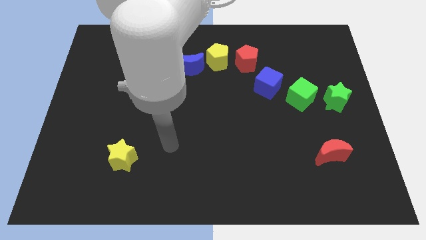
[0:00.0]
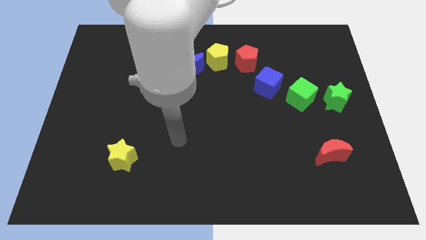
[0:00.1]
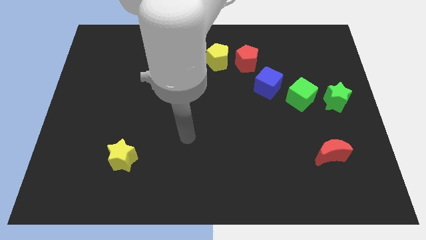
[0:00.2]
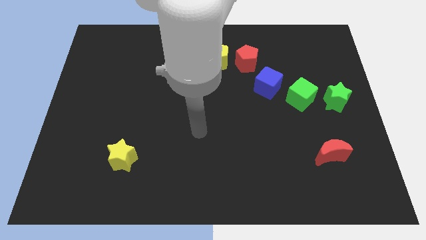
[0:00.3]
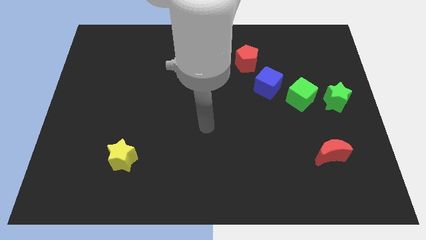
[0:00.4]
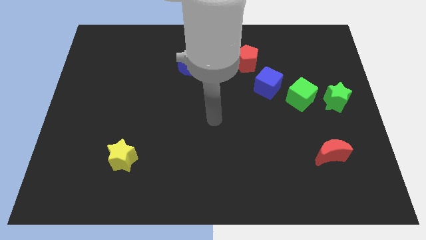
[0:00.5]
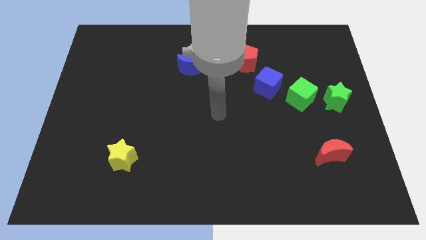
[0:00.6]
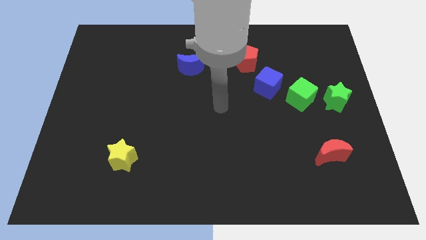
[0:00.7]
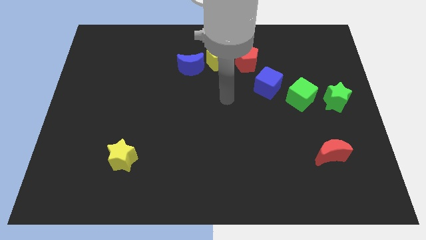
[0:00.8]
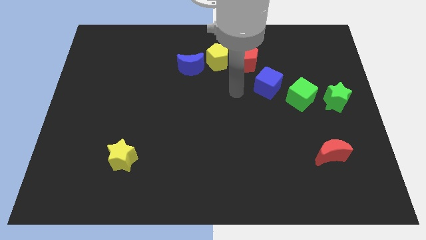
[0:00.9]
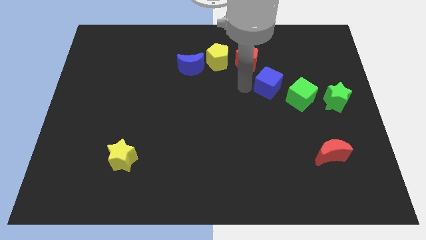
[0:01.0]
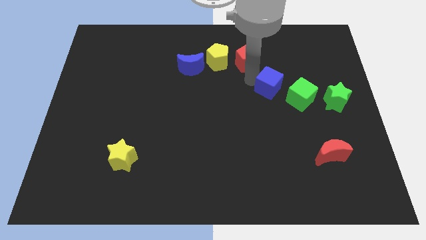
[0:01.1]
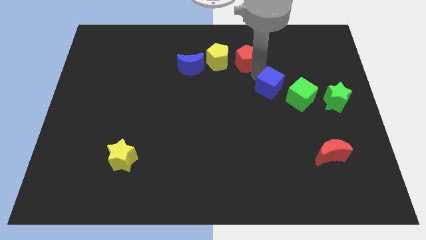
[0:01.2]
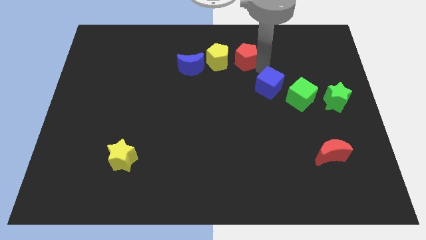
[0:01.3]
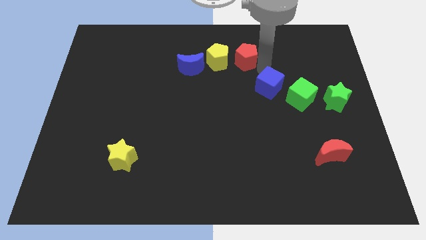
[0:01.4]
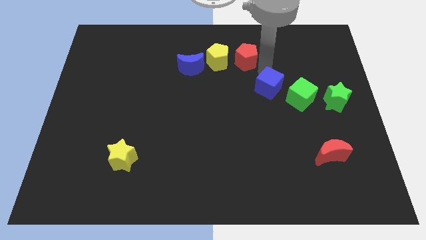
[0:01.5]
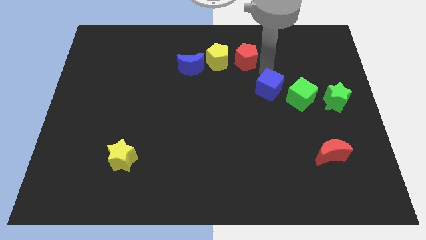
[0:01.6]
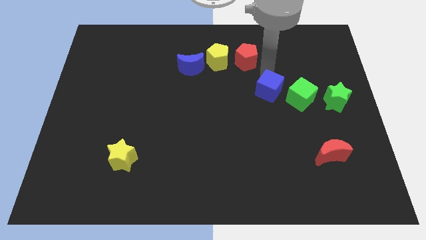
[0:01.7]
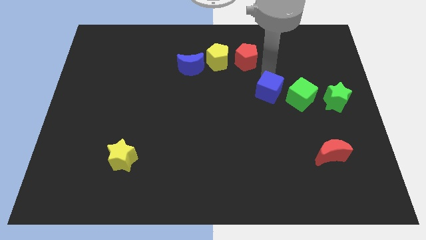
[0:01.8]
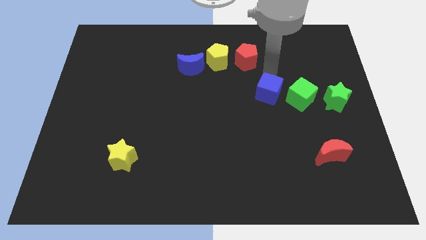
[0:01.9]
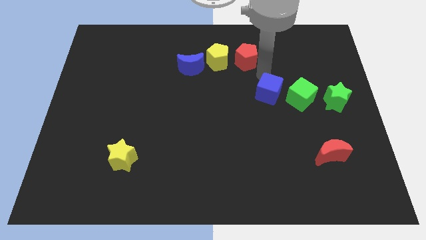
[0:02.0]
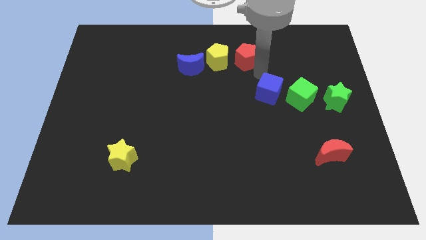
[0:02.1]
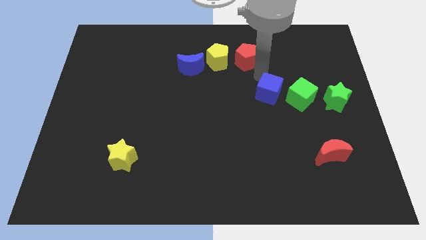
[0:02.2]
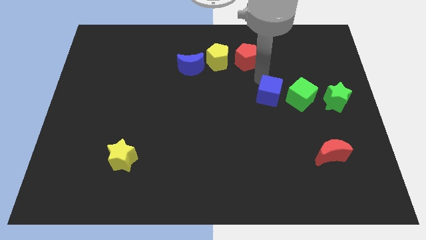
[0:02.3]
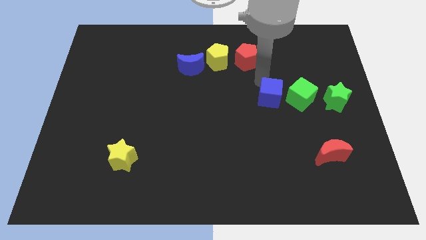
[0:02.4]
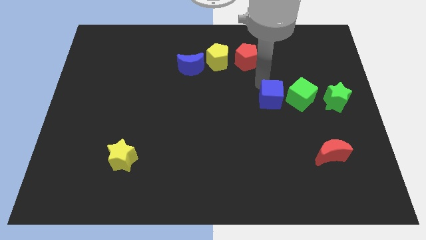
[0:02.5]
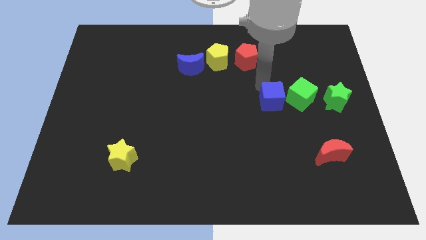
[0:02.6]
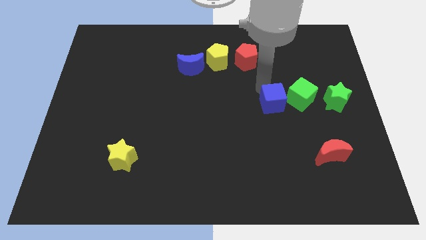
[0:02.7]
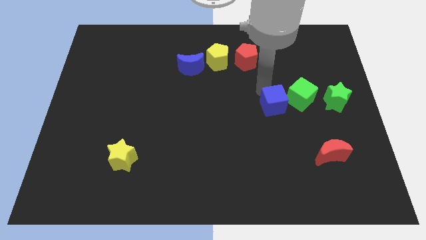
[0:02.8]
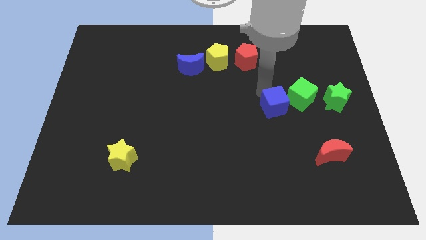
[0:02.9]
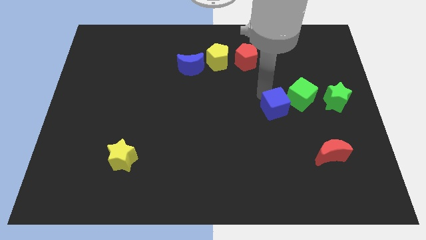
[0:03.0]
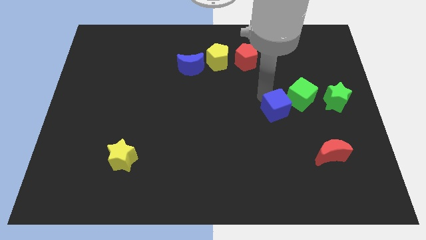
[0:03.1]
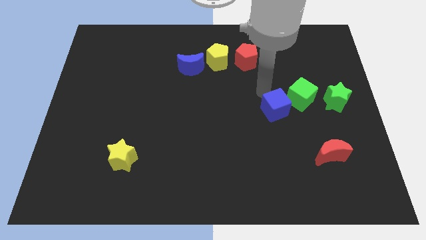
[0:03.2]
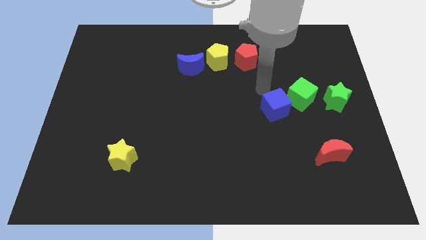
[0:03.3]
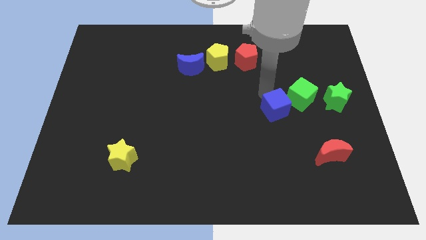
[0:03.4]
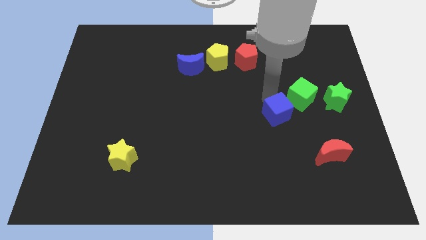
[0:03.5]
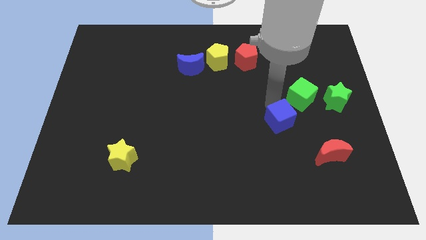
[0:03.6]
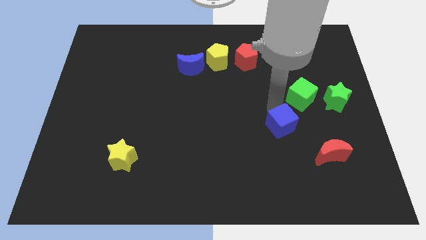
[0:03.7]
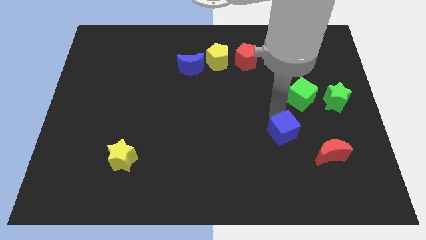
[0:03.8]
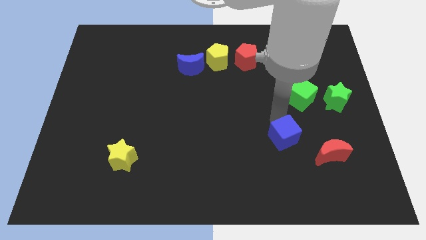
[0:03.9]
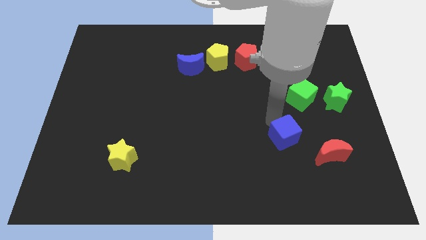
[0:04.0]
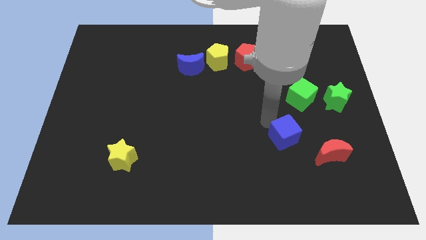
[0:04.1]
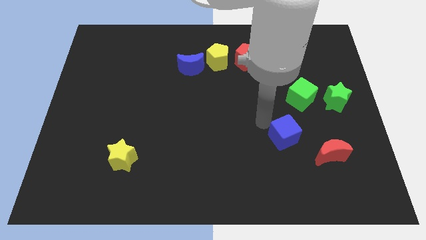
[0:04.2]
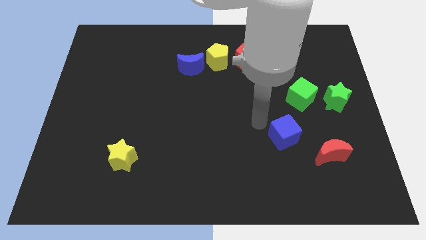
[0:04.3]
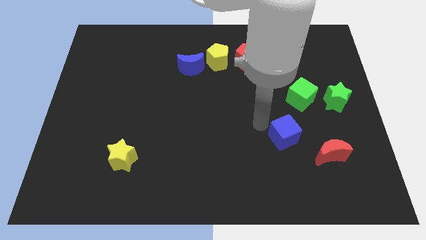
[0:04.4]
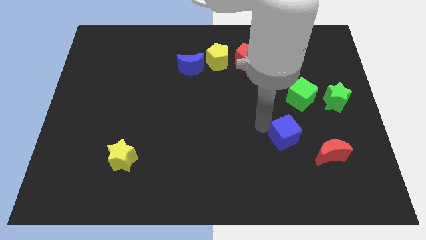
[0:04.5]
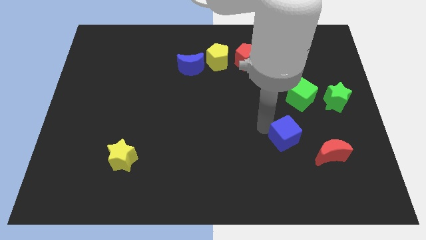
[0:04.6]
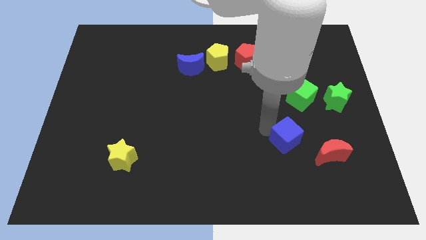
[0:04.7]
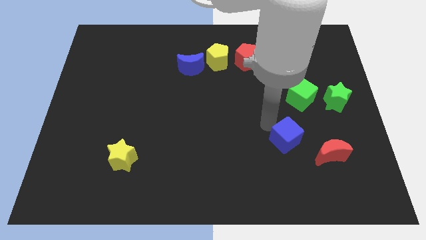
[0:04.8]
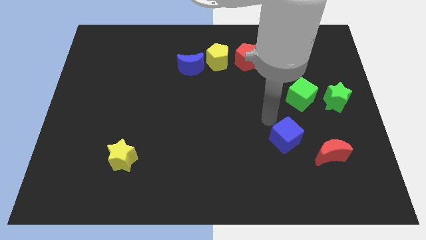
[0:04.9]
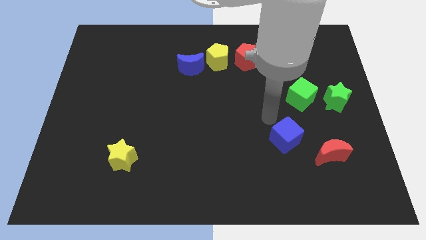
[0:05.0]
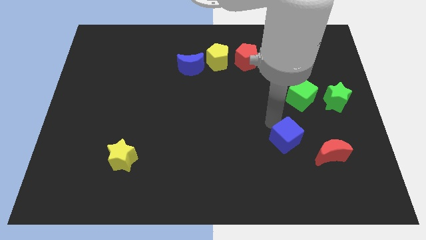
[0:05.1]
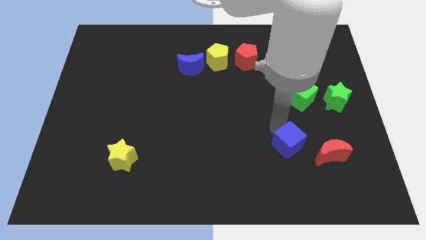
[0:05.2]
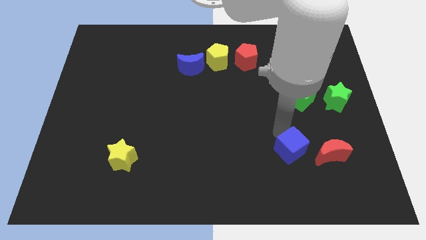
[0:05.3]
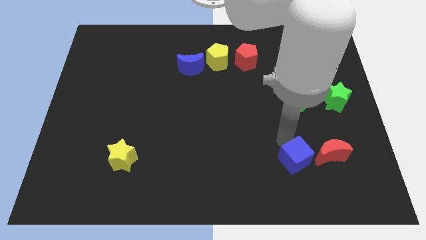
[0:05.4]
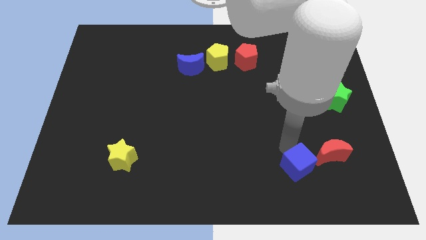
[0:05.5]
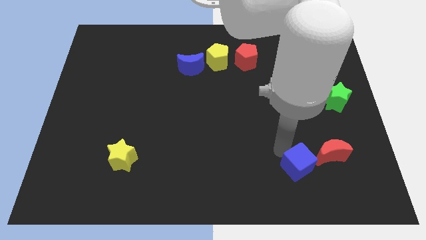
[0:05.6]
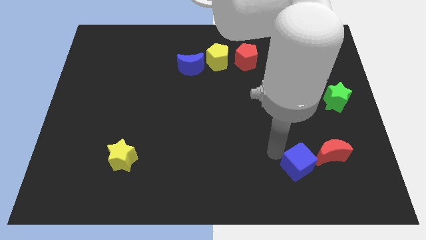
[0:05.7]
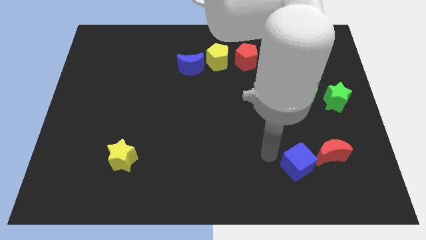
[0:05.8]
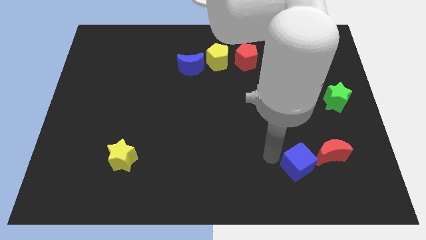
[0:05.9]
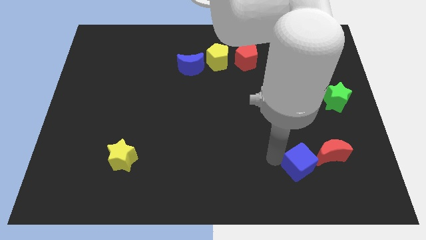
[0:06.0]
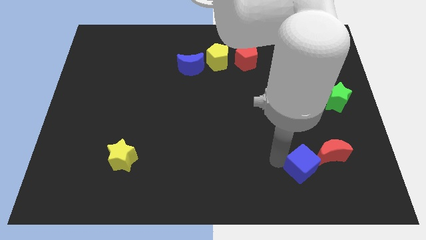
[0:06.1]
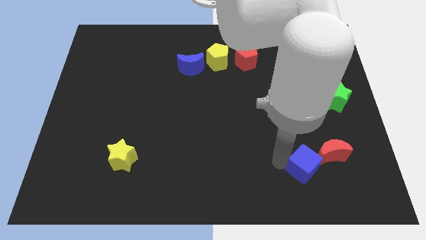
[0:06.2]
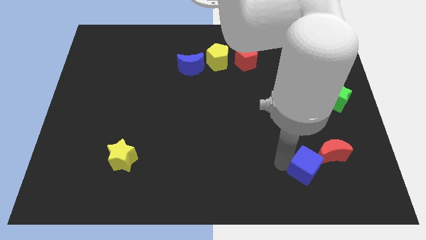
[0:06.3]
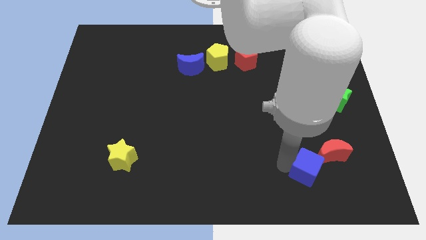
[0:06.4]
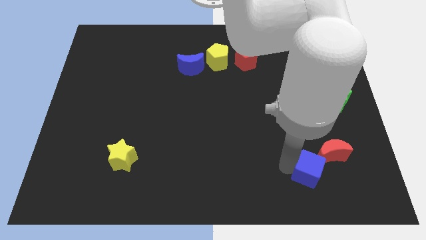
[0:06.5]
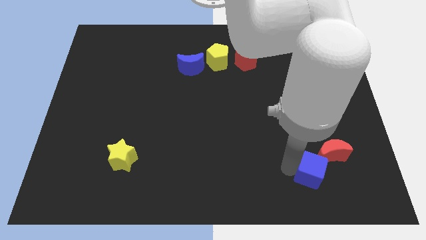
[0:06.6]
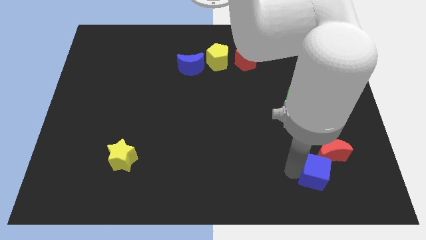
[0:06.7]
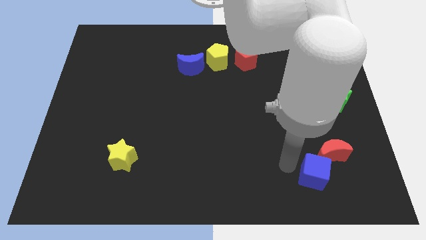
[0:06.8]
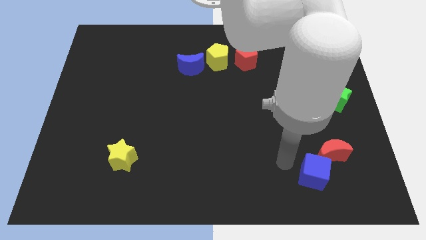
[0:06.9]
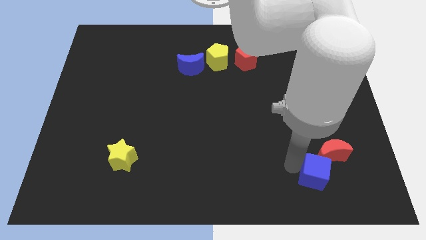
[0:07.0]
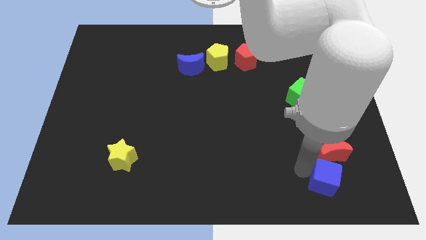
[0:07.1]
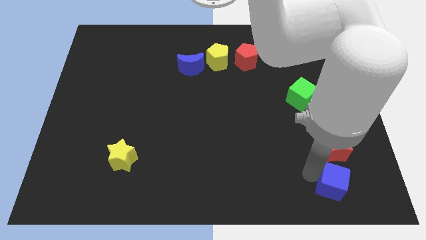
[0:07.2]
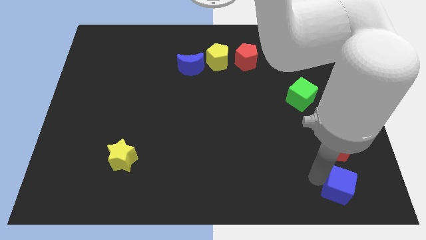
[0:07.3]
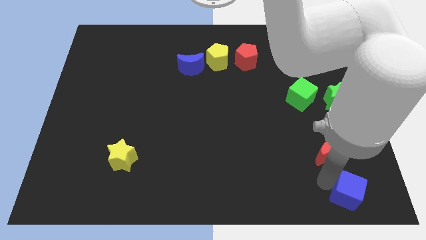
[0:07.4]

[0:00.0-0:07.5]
put the blue cube to the lower right corner
